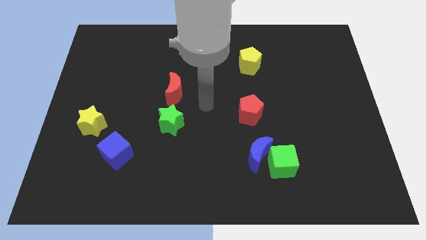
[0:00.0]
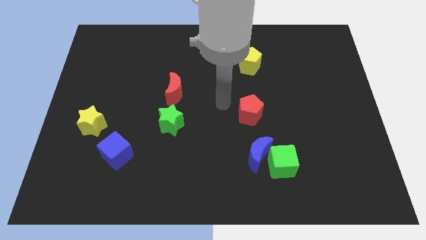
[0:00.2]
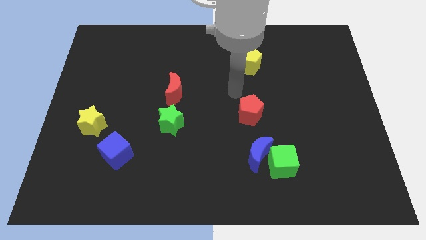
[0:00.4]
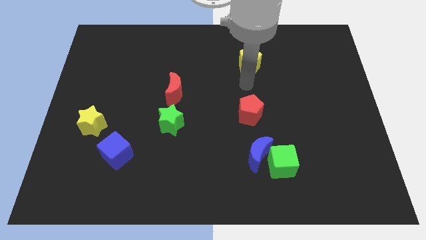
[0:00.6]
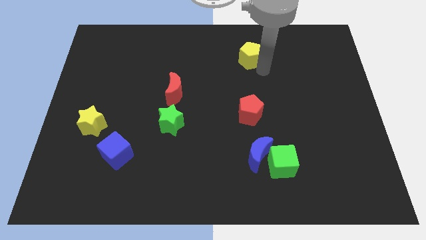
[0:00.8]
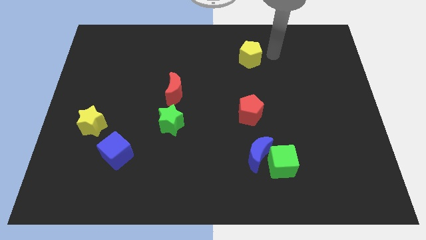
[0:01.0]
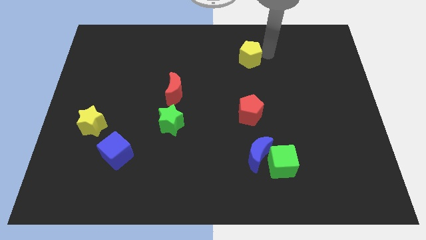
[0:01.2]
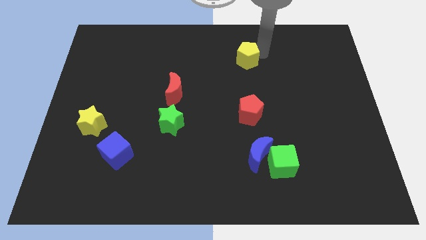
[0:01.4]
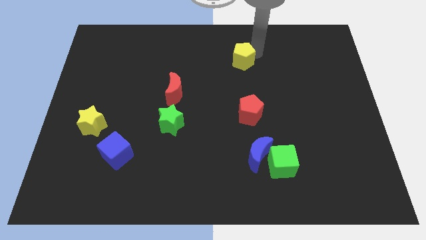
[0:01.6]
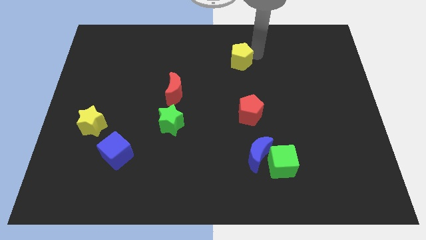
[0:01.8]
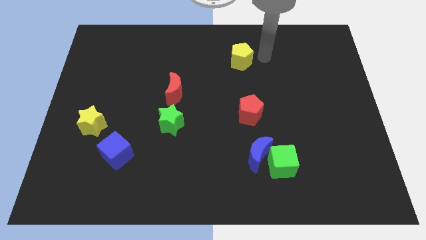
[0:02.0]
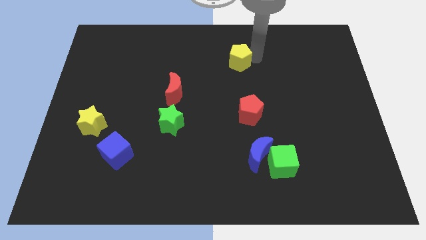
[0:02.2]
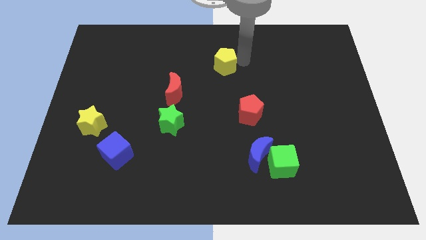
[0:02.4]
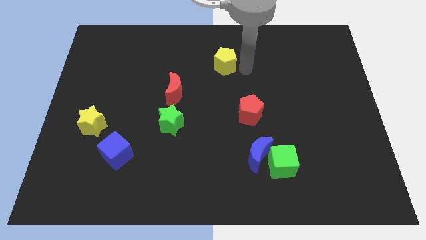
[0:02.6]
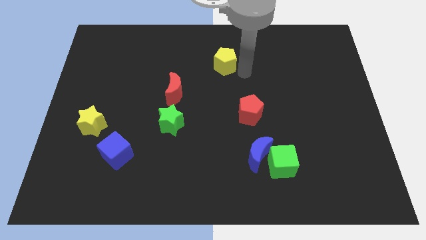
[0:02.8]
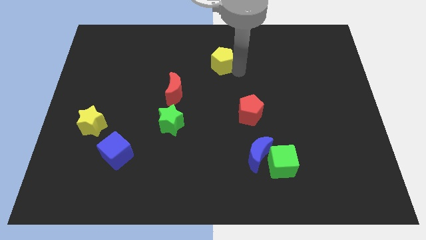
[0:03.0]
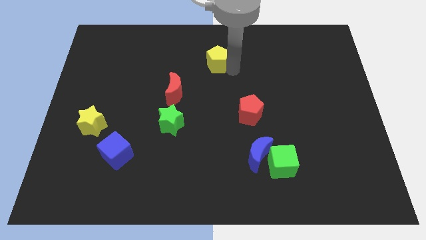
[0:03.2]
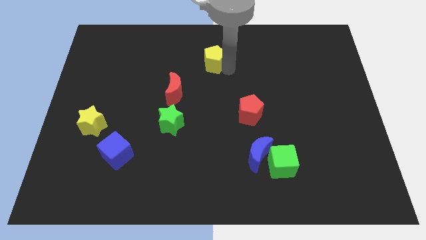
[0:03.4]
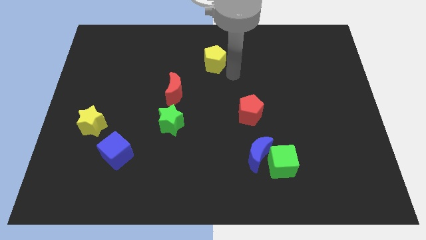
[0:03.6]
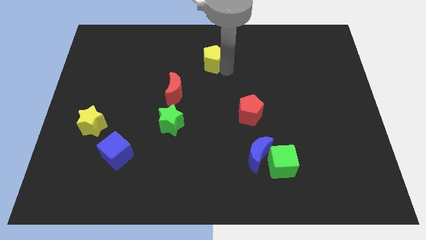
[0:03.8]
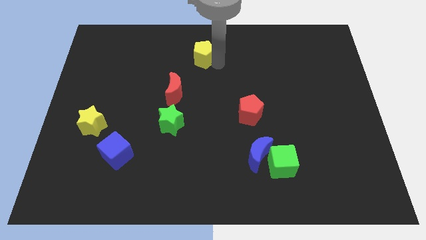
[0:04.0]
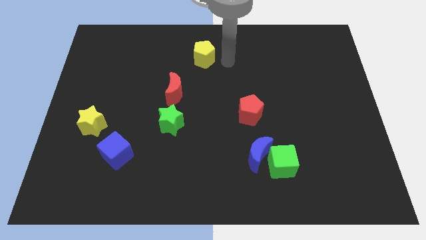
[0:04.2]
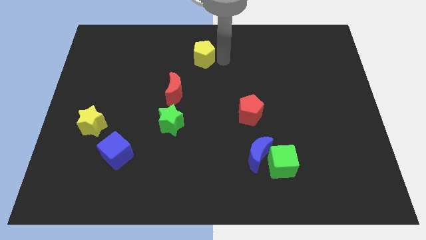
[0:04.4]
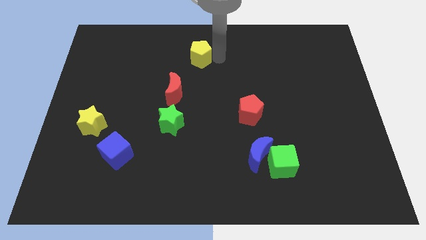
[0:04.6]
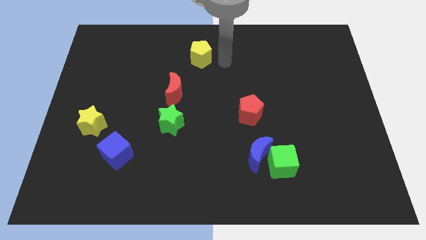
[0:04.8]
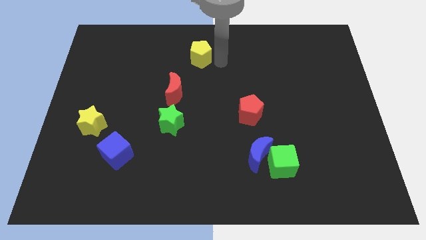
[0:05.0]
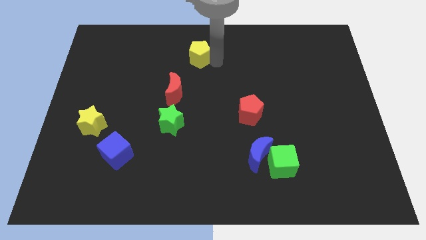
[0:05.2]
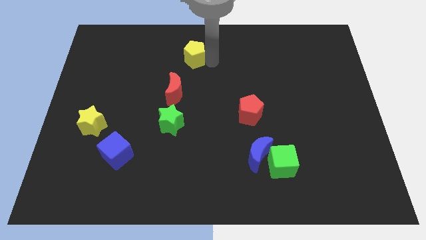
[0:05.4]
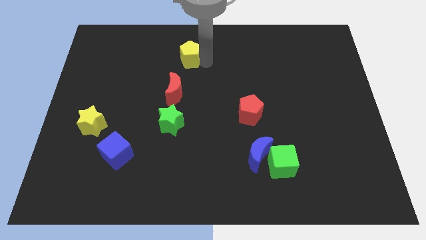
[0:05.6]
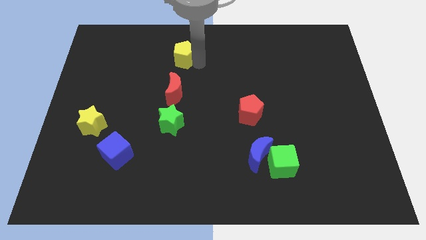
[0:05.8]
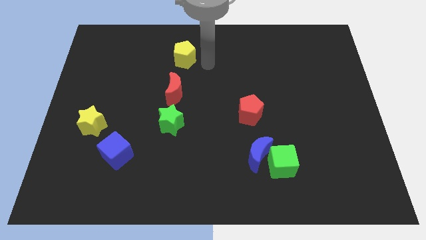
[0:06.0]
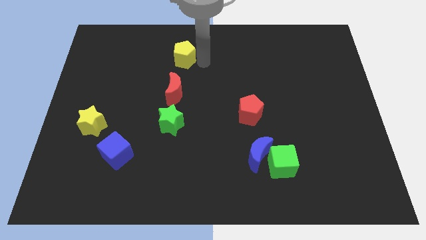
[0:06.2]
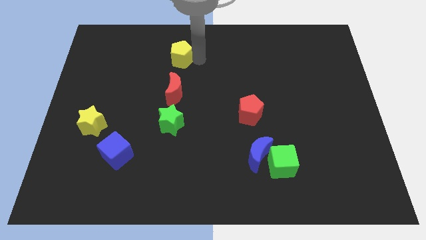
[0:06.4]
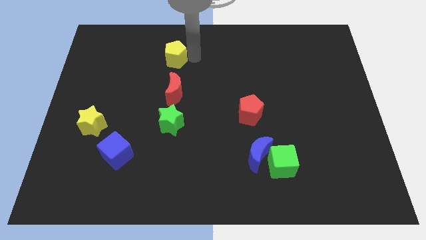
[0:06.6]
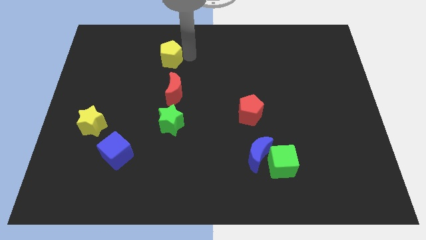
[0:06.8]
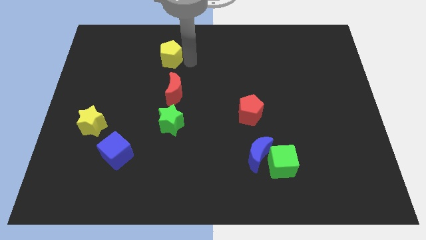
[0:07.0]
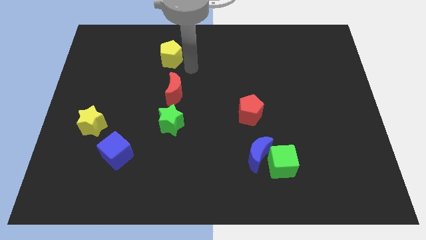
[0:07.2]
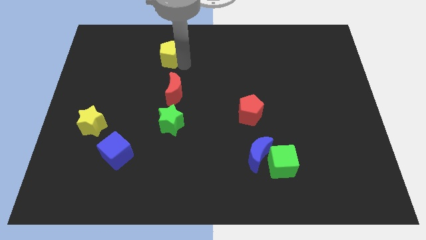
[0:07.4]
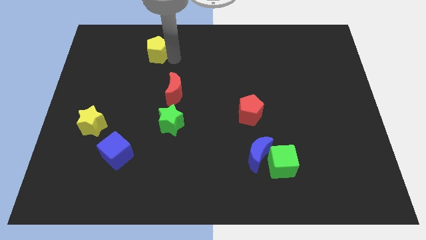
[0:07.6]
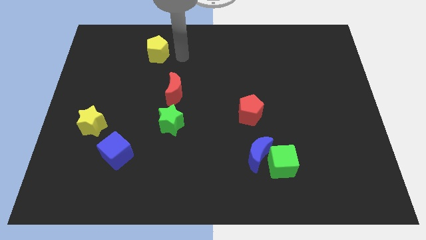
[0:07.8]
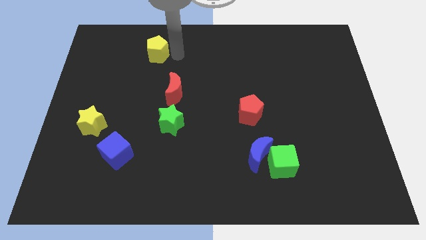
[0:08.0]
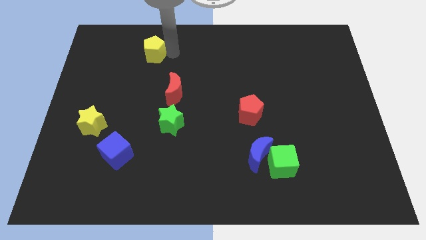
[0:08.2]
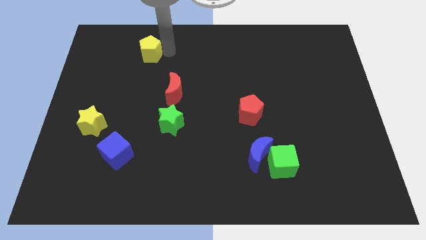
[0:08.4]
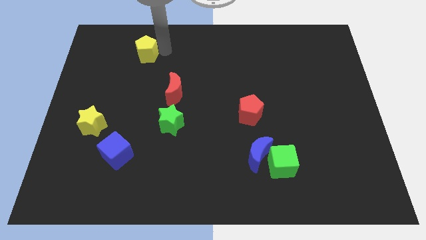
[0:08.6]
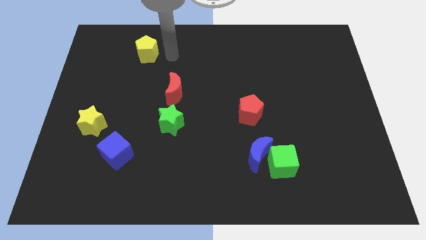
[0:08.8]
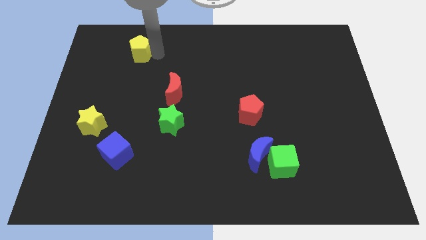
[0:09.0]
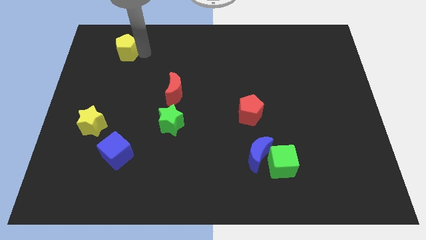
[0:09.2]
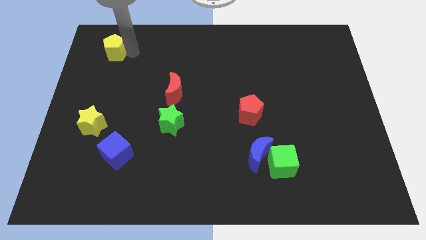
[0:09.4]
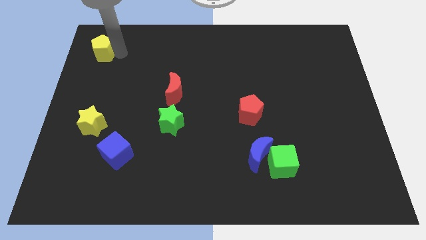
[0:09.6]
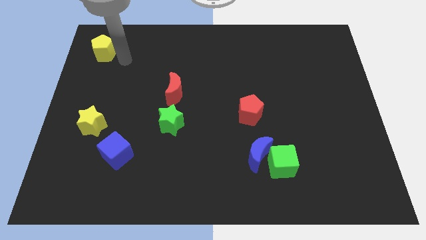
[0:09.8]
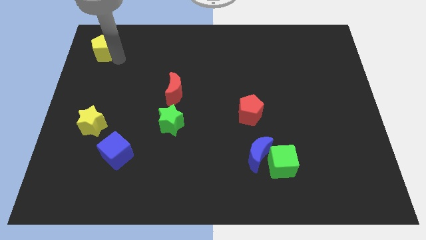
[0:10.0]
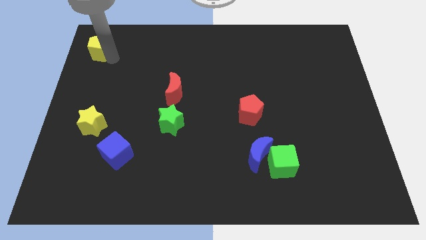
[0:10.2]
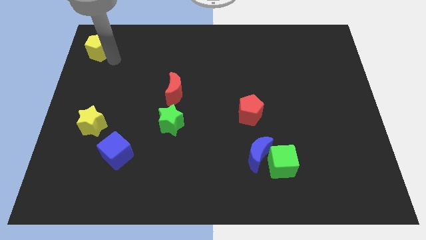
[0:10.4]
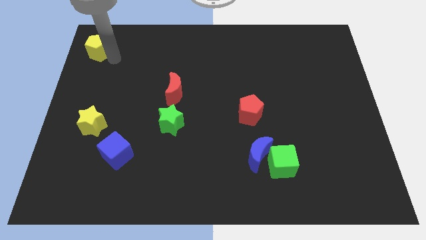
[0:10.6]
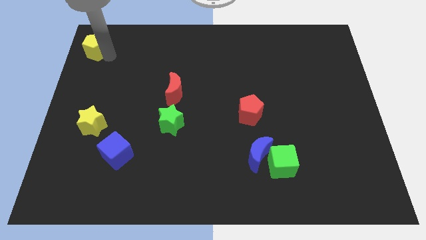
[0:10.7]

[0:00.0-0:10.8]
push the yellow pentagon to the top left of the board

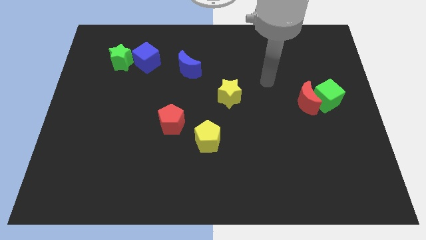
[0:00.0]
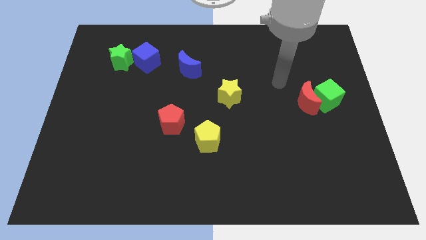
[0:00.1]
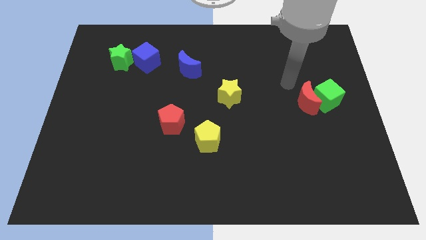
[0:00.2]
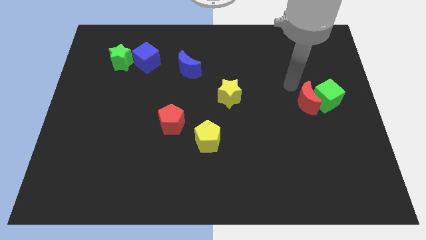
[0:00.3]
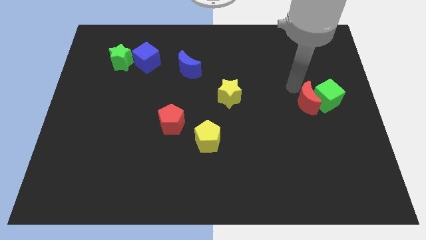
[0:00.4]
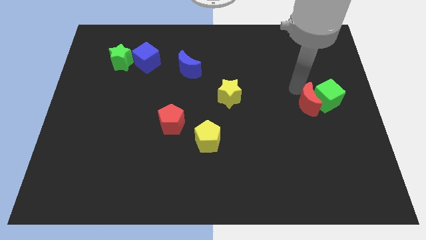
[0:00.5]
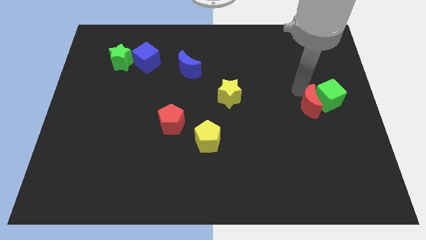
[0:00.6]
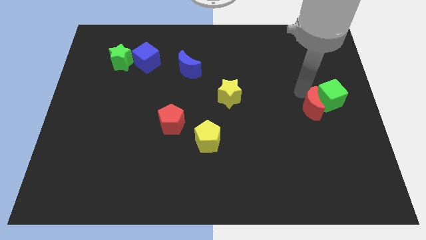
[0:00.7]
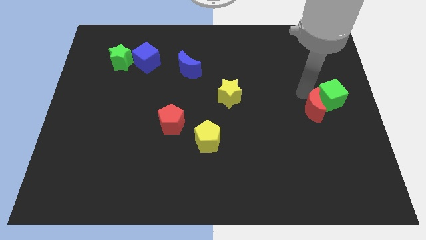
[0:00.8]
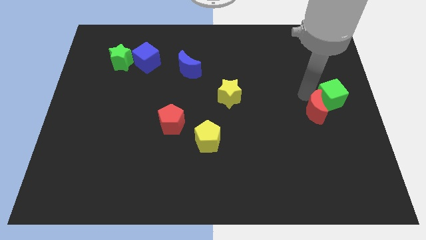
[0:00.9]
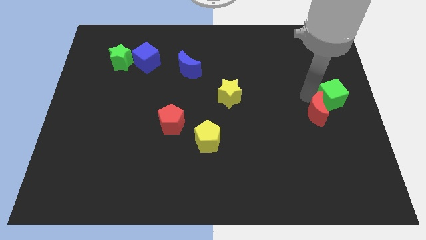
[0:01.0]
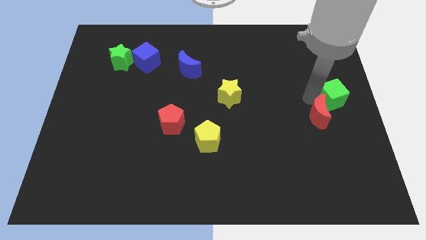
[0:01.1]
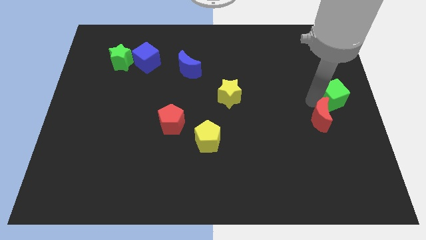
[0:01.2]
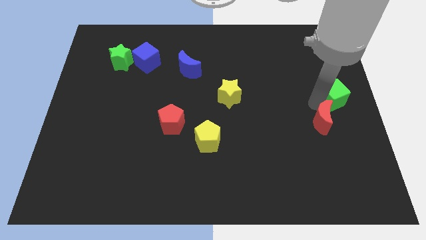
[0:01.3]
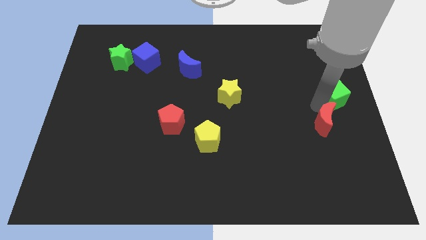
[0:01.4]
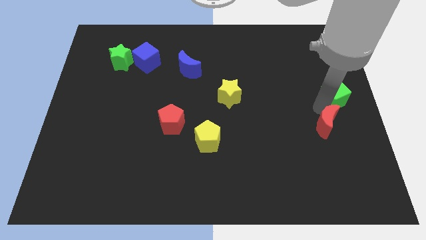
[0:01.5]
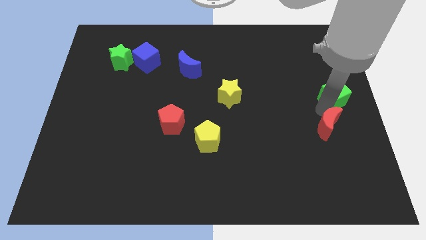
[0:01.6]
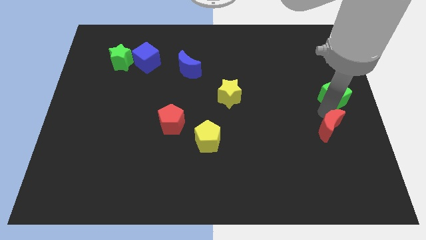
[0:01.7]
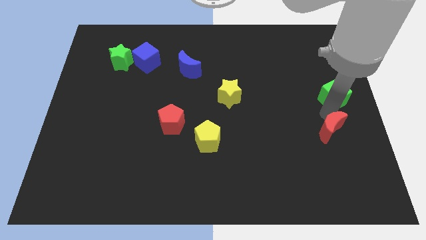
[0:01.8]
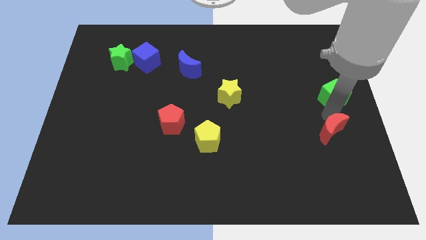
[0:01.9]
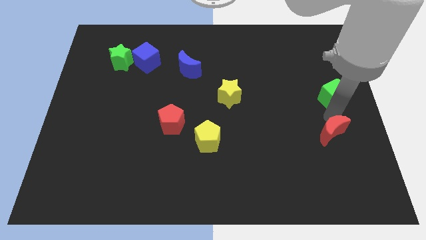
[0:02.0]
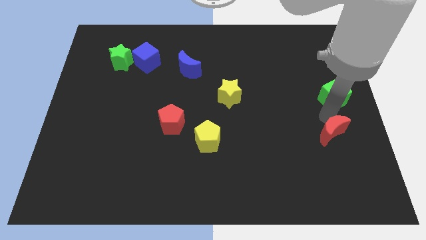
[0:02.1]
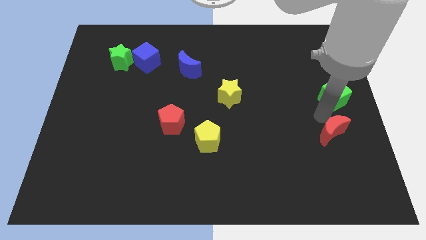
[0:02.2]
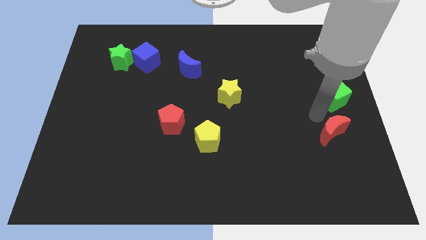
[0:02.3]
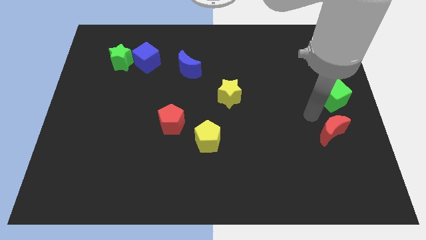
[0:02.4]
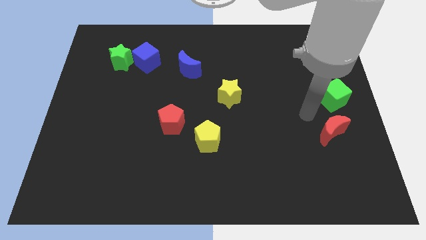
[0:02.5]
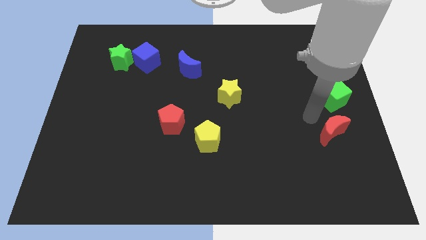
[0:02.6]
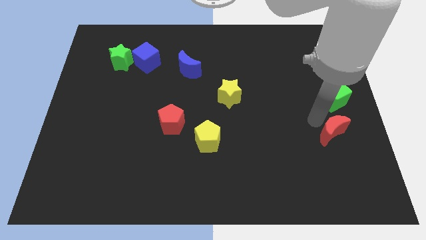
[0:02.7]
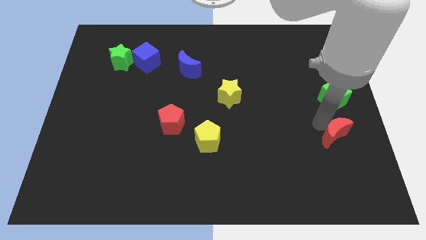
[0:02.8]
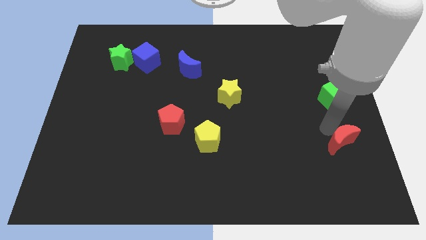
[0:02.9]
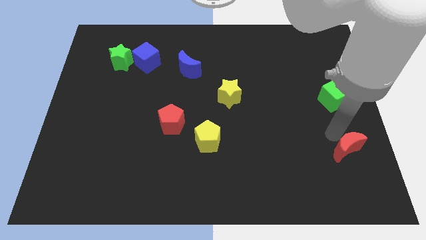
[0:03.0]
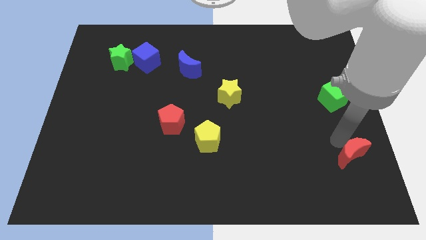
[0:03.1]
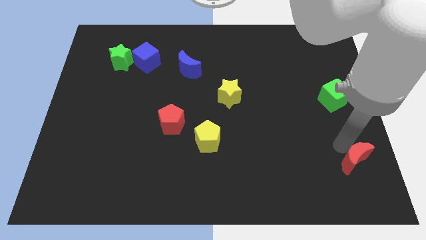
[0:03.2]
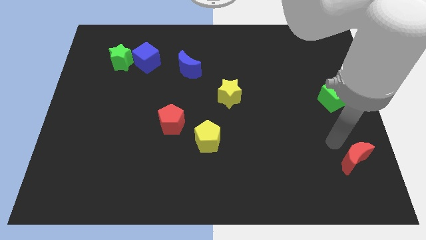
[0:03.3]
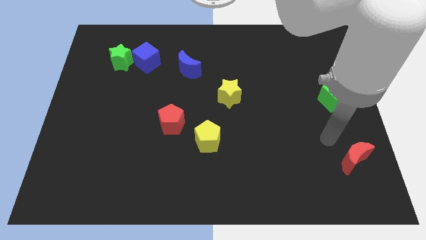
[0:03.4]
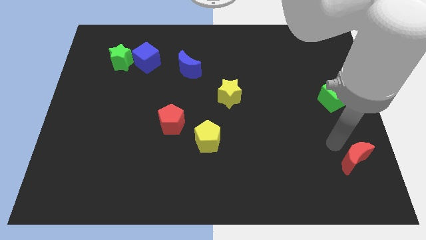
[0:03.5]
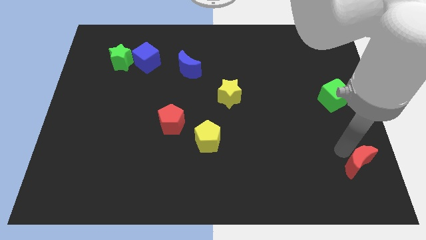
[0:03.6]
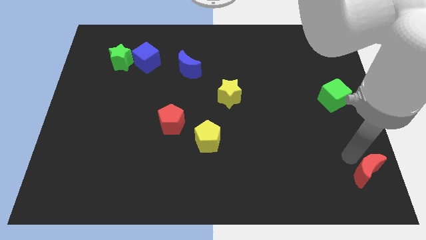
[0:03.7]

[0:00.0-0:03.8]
push the red moon to the lower right corner
